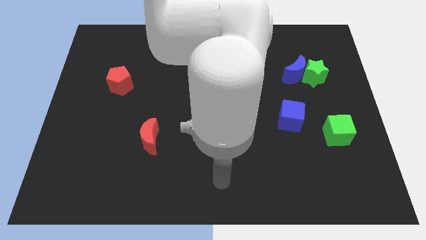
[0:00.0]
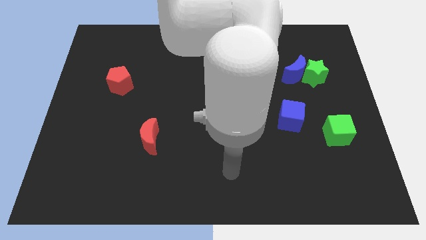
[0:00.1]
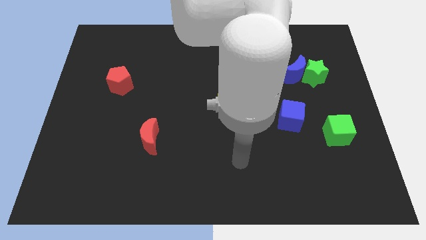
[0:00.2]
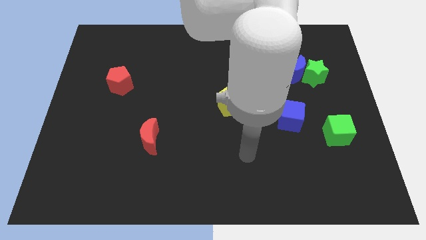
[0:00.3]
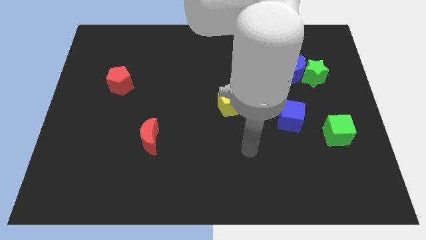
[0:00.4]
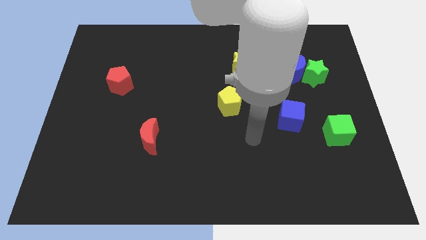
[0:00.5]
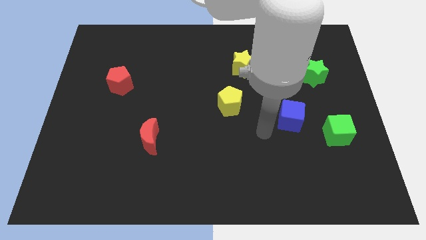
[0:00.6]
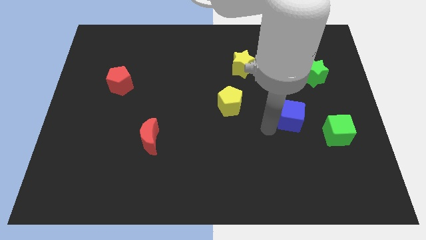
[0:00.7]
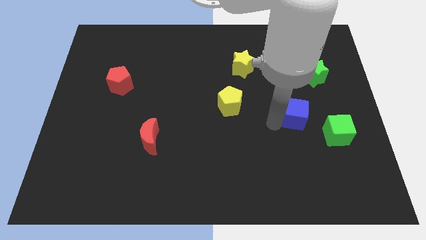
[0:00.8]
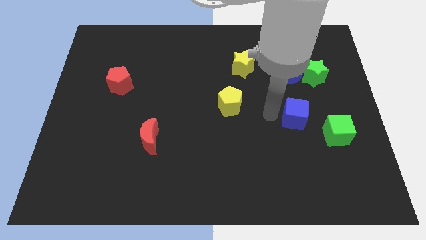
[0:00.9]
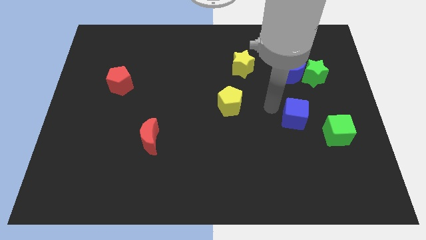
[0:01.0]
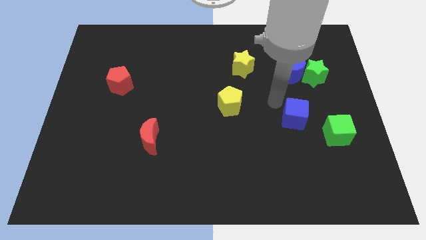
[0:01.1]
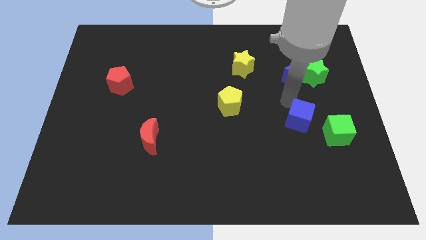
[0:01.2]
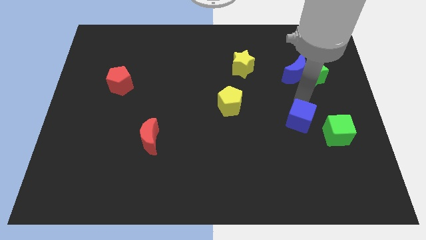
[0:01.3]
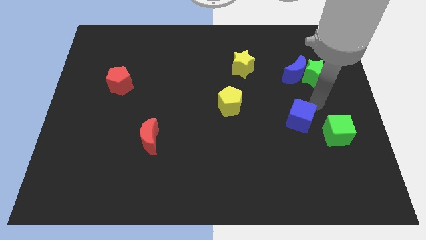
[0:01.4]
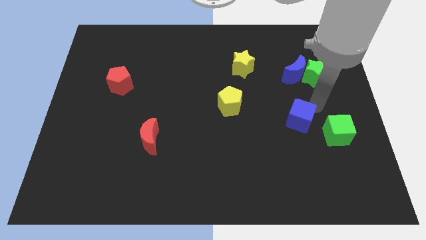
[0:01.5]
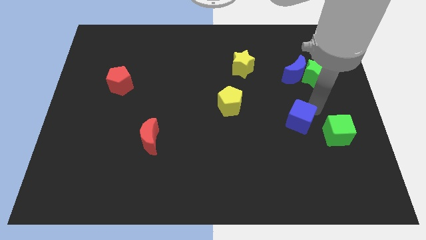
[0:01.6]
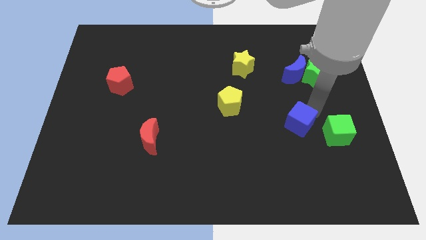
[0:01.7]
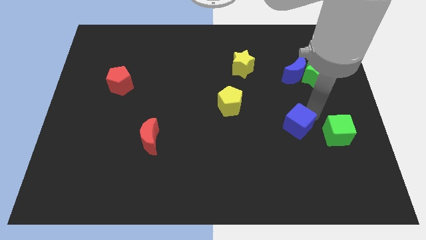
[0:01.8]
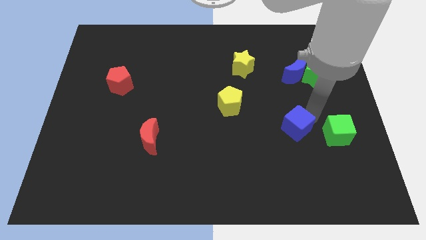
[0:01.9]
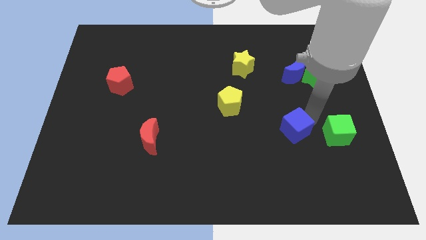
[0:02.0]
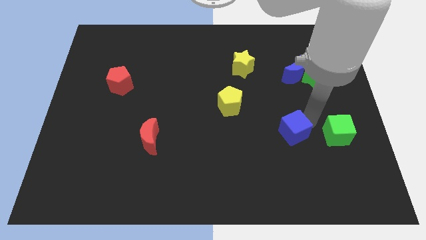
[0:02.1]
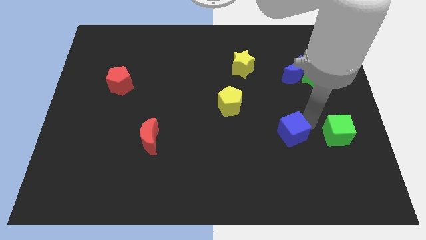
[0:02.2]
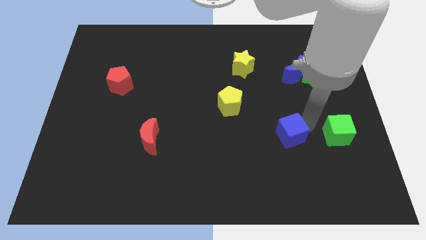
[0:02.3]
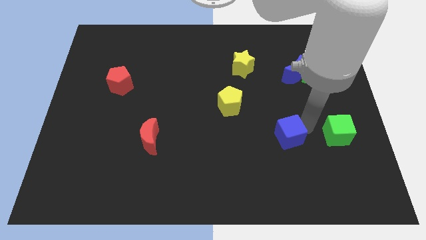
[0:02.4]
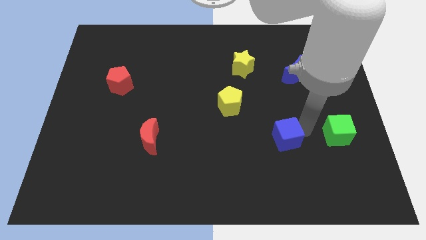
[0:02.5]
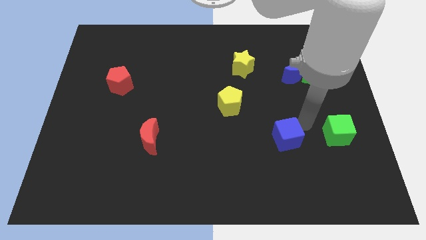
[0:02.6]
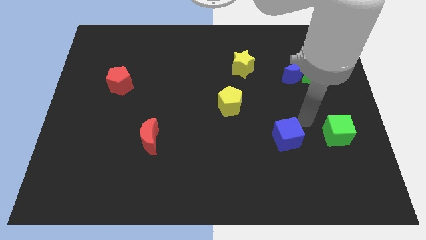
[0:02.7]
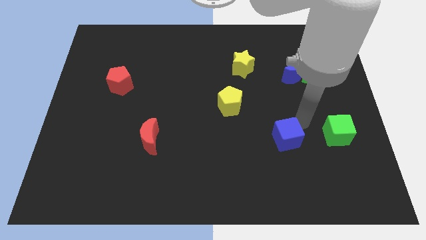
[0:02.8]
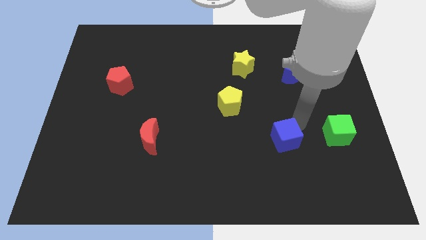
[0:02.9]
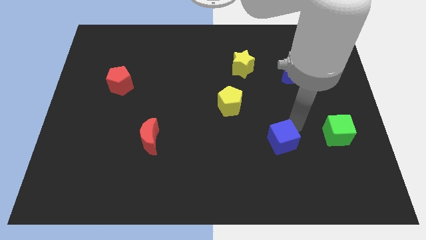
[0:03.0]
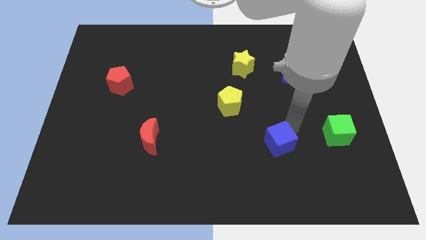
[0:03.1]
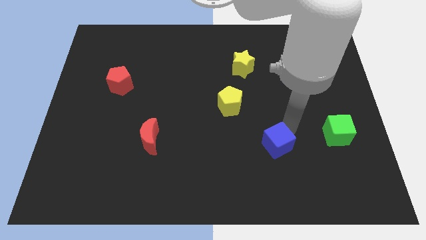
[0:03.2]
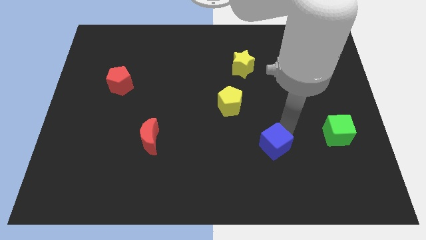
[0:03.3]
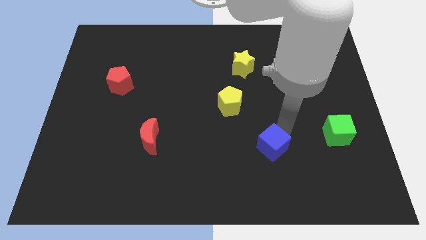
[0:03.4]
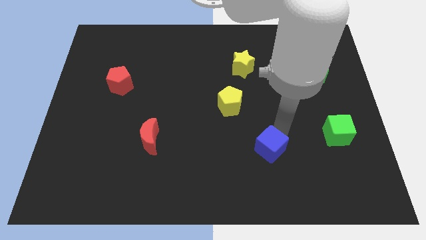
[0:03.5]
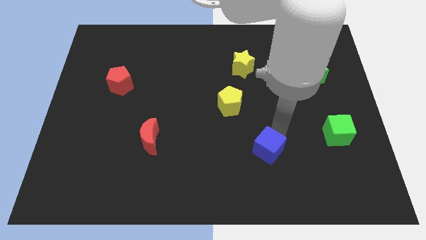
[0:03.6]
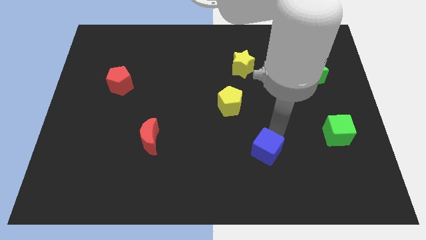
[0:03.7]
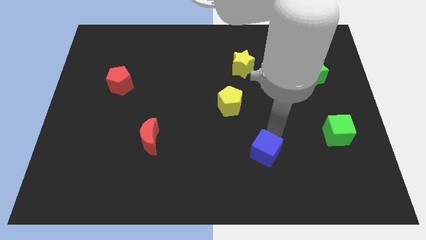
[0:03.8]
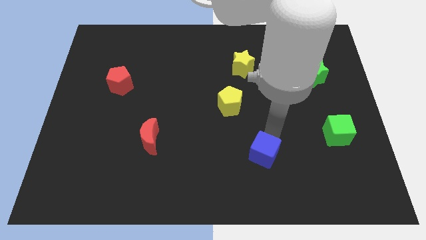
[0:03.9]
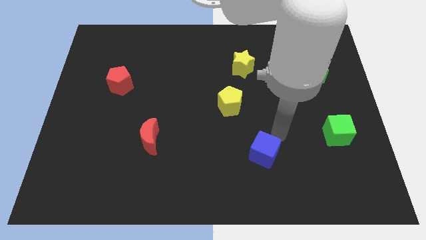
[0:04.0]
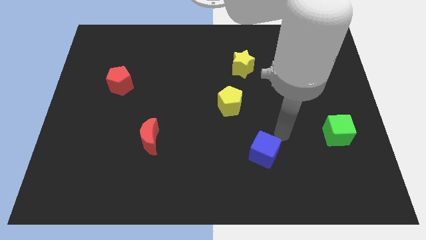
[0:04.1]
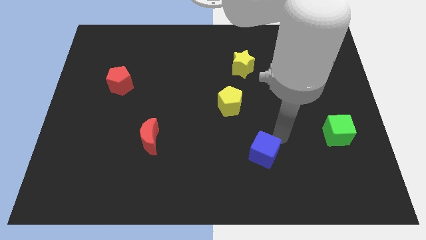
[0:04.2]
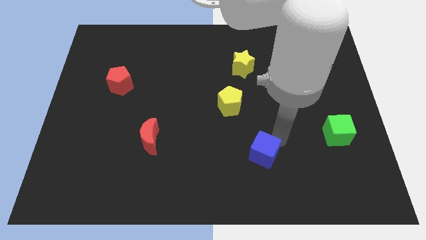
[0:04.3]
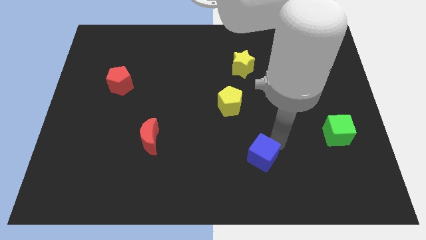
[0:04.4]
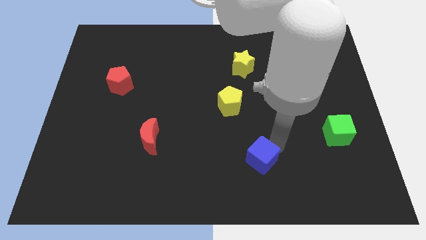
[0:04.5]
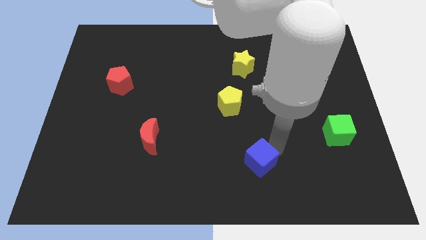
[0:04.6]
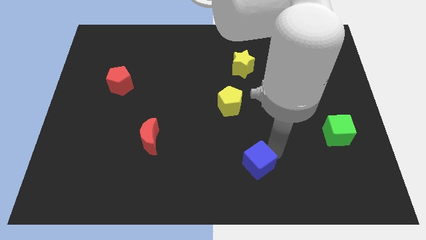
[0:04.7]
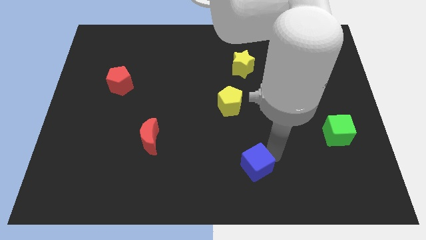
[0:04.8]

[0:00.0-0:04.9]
put the blue cube to the bottom

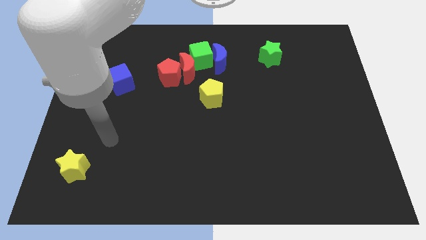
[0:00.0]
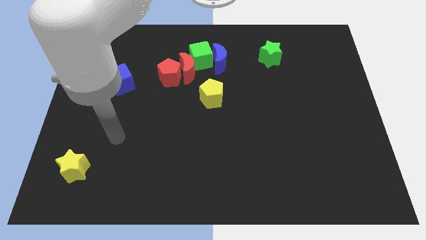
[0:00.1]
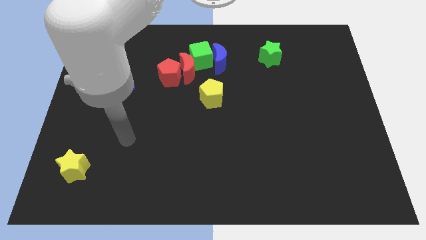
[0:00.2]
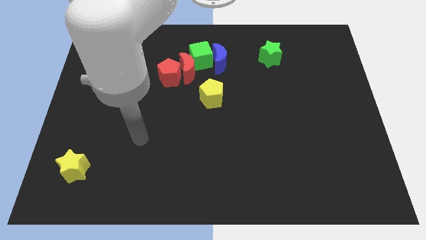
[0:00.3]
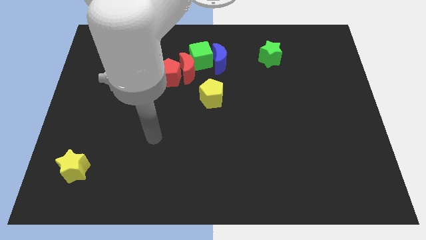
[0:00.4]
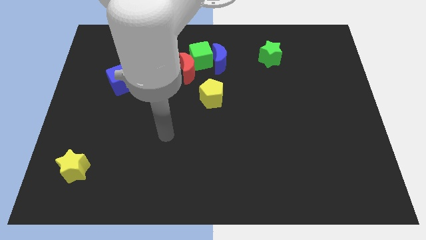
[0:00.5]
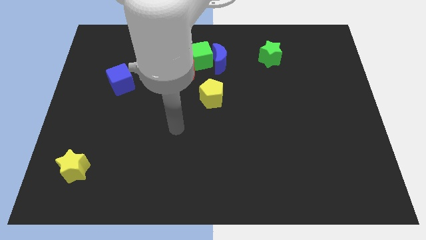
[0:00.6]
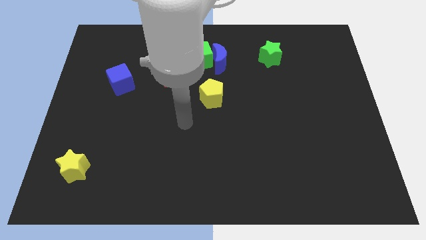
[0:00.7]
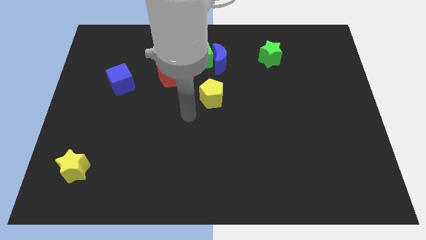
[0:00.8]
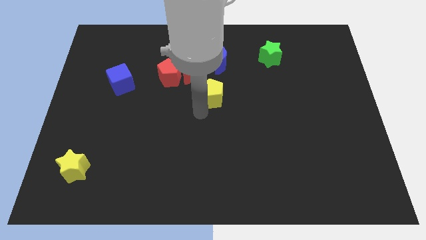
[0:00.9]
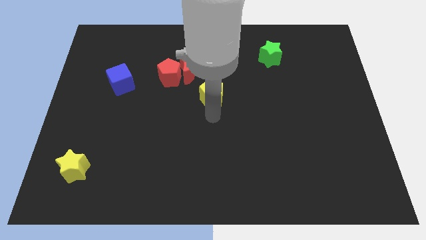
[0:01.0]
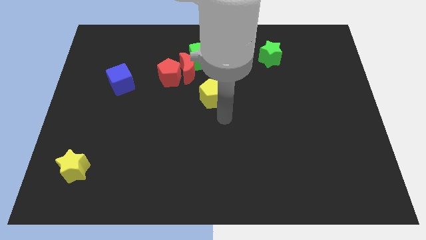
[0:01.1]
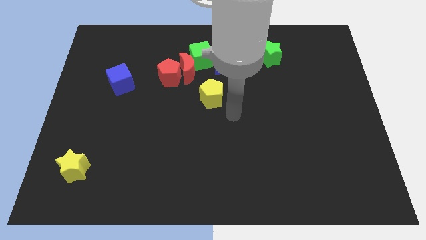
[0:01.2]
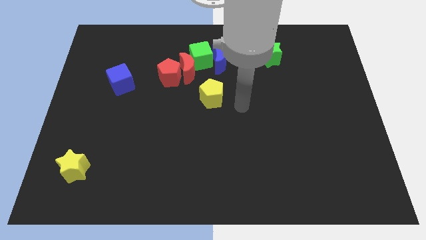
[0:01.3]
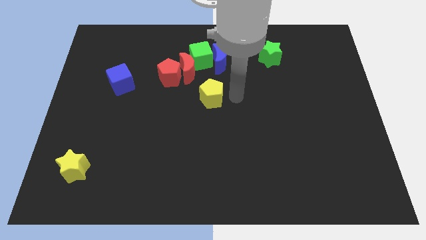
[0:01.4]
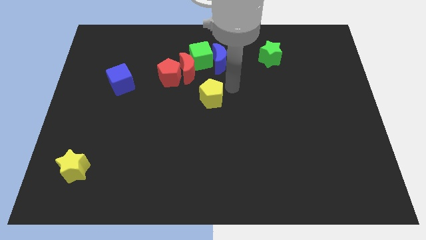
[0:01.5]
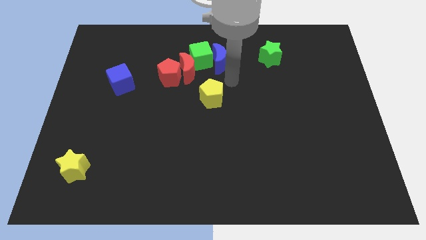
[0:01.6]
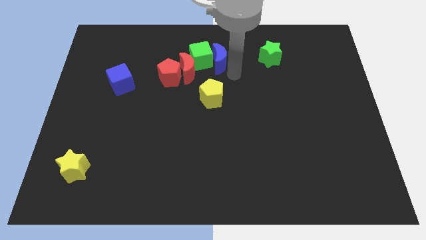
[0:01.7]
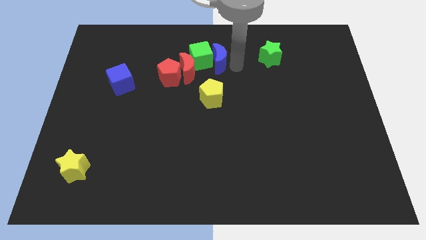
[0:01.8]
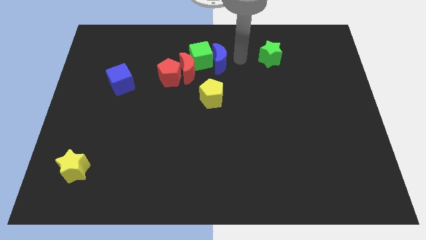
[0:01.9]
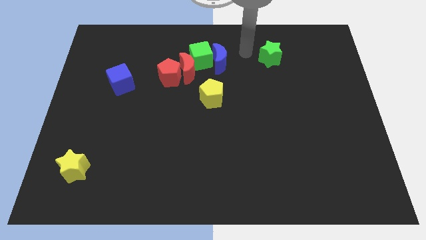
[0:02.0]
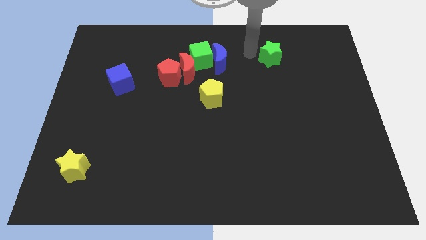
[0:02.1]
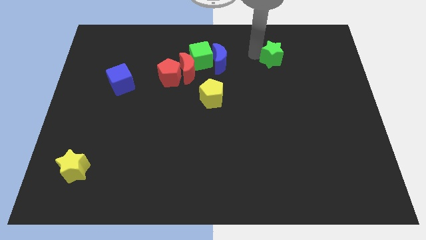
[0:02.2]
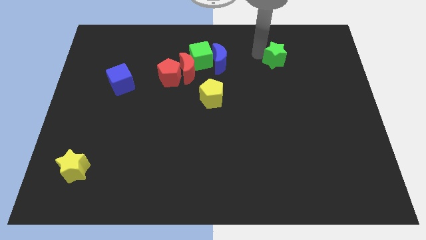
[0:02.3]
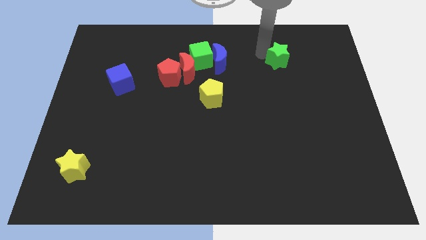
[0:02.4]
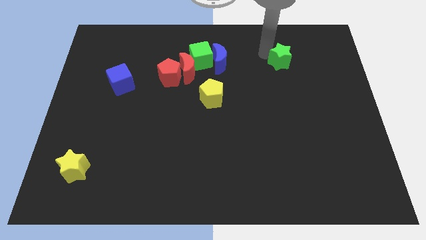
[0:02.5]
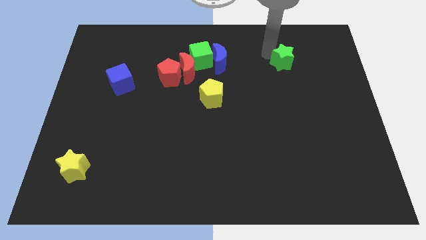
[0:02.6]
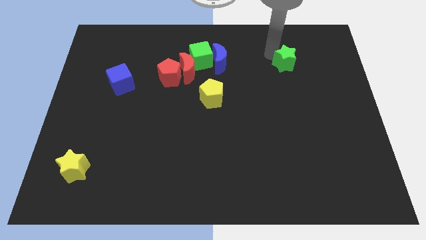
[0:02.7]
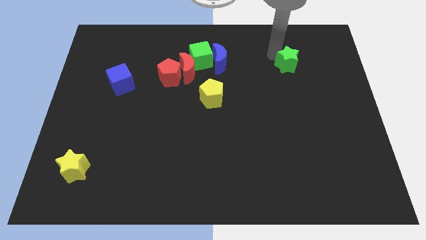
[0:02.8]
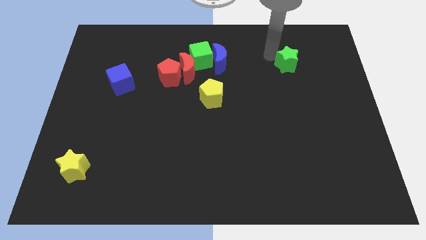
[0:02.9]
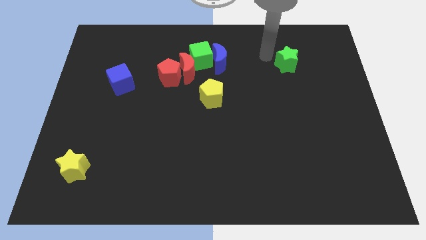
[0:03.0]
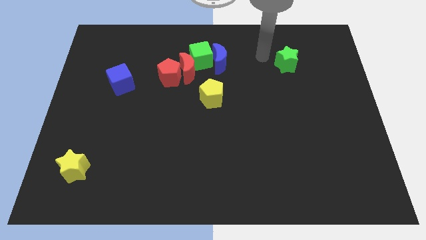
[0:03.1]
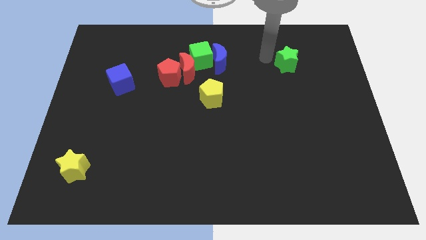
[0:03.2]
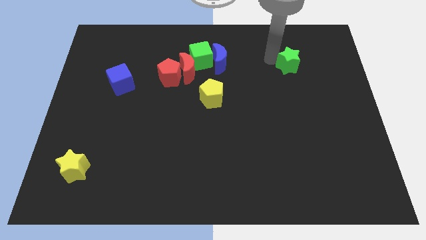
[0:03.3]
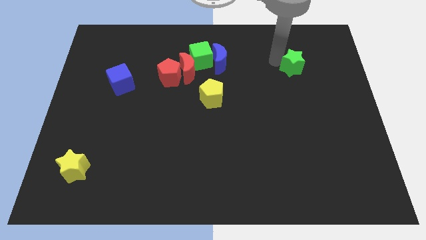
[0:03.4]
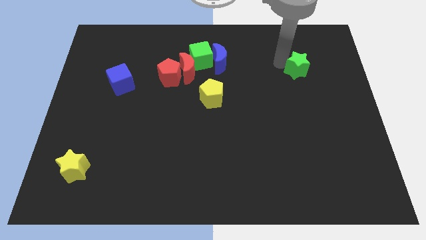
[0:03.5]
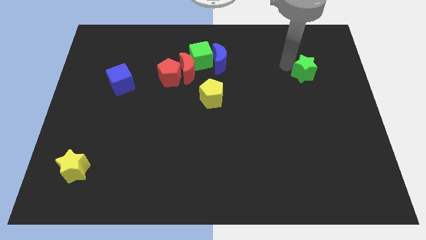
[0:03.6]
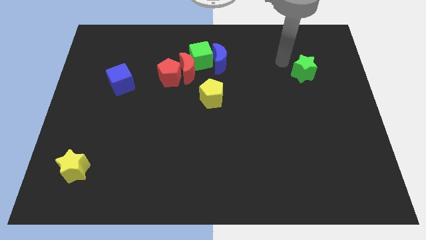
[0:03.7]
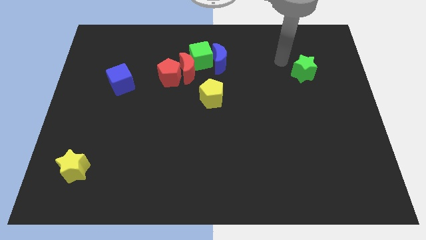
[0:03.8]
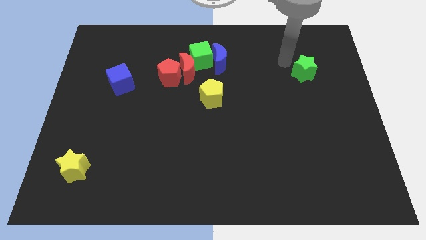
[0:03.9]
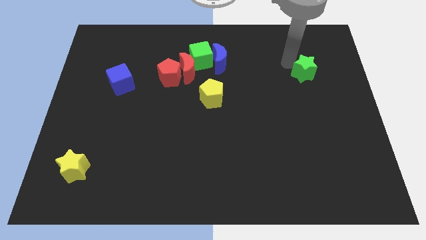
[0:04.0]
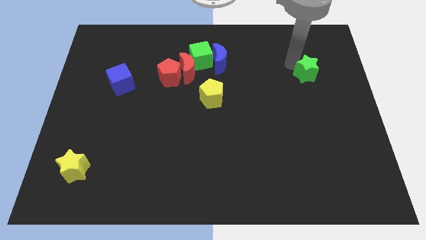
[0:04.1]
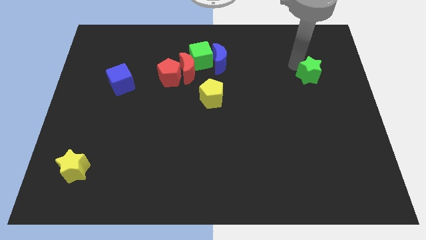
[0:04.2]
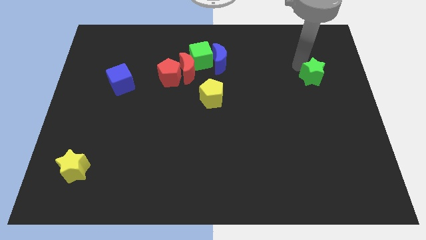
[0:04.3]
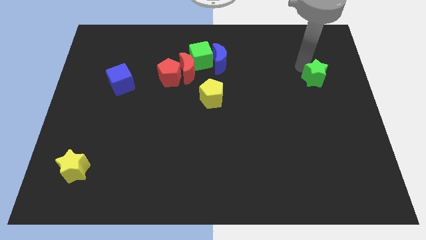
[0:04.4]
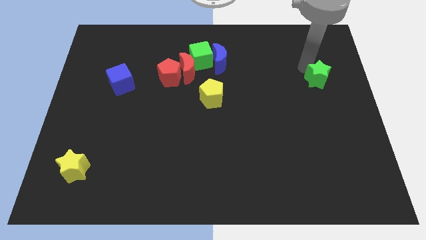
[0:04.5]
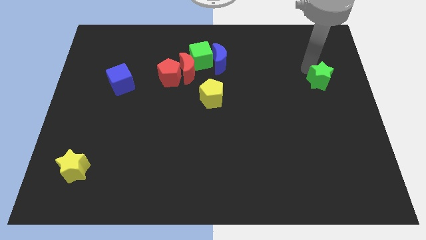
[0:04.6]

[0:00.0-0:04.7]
move the green star to the center right
